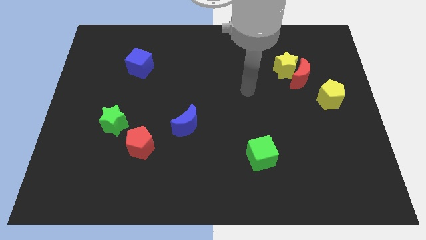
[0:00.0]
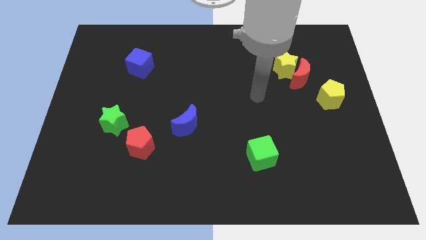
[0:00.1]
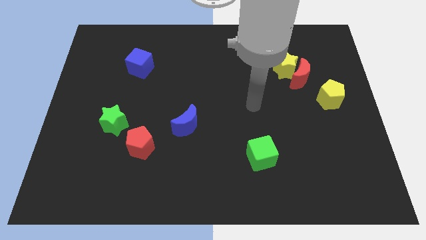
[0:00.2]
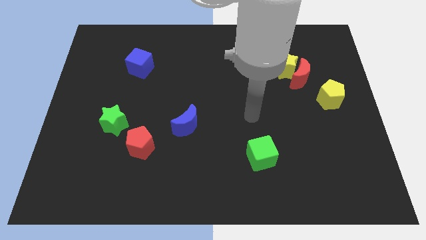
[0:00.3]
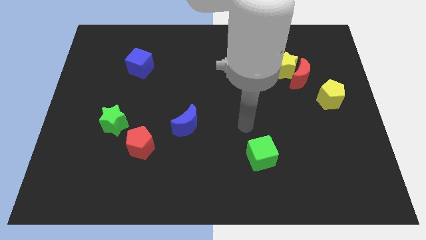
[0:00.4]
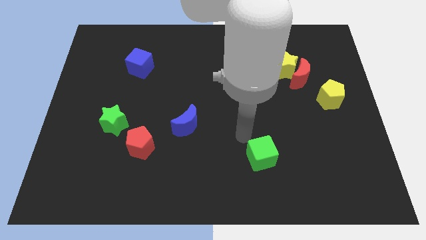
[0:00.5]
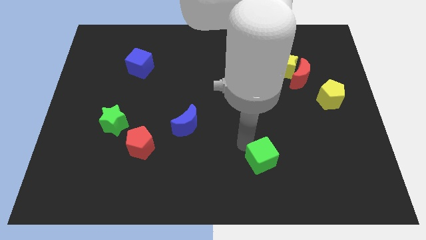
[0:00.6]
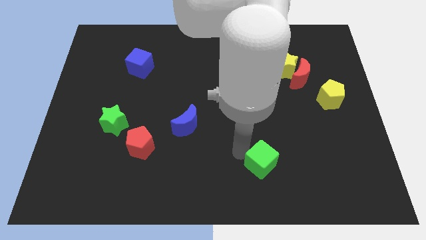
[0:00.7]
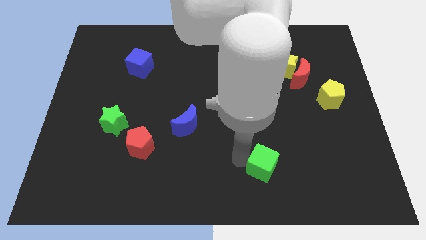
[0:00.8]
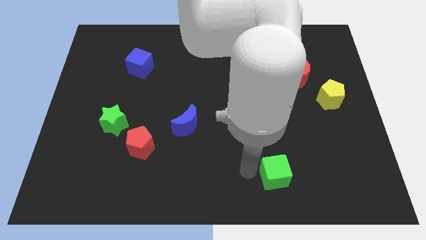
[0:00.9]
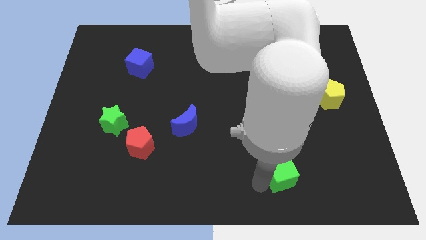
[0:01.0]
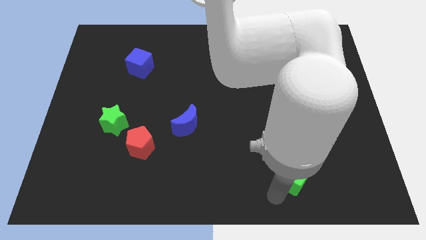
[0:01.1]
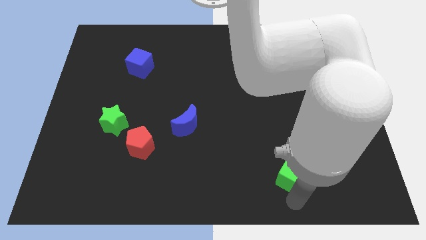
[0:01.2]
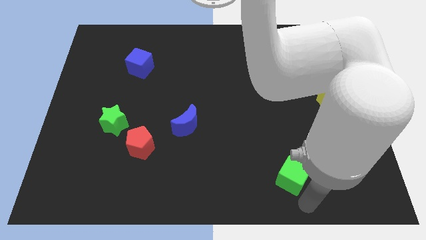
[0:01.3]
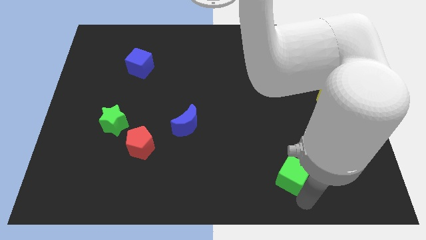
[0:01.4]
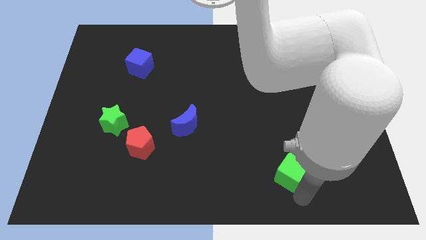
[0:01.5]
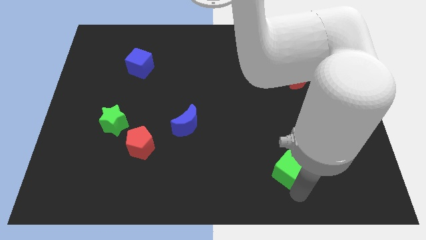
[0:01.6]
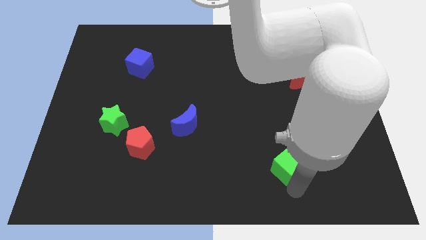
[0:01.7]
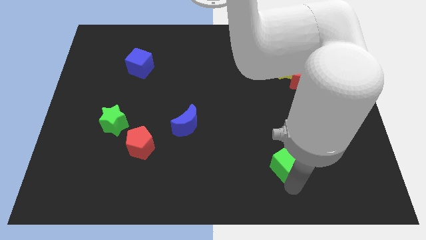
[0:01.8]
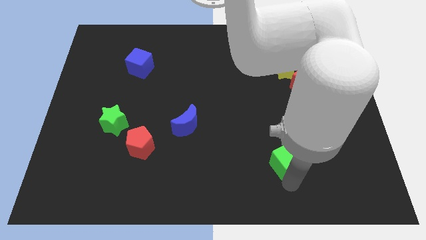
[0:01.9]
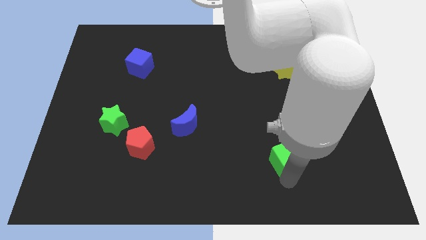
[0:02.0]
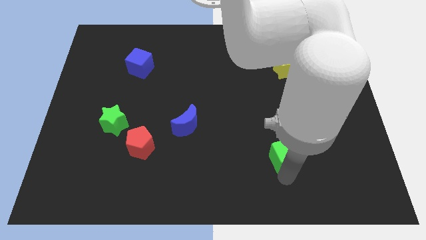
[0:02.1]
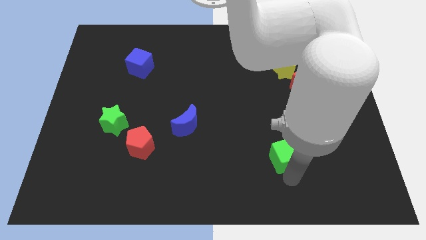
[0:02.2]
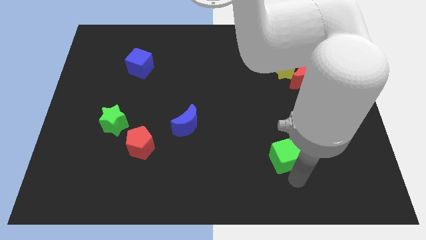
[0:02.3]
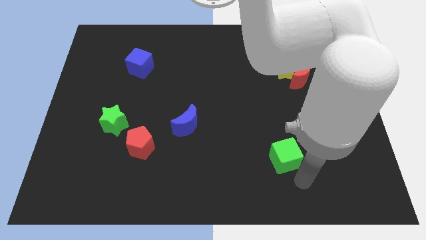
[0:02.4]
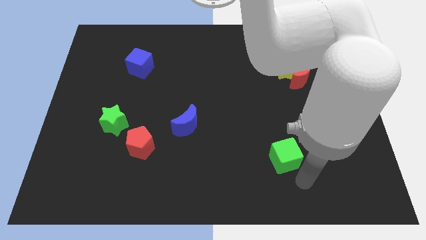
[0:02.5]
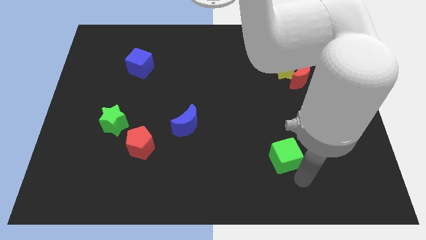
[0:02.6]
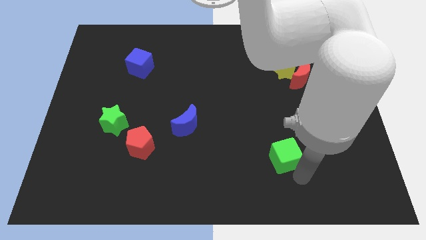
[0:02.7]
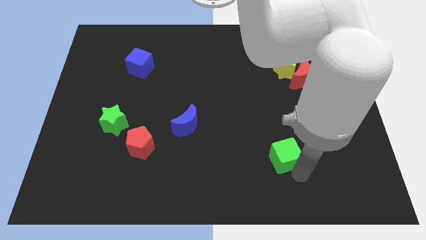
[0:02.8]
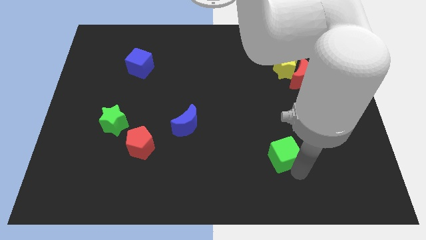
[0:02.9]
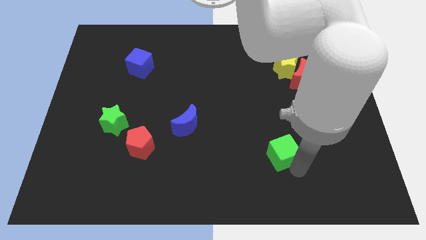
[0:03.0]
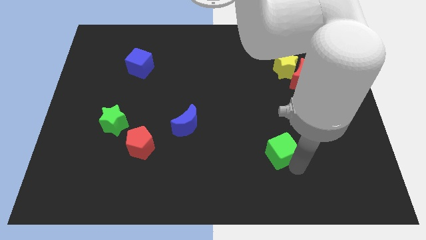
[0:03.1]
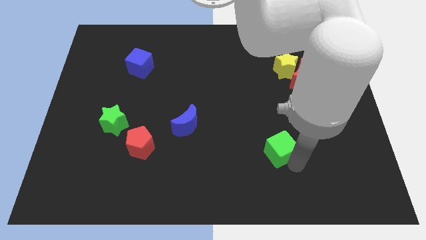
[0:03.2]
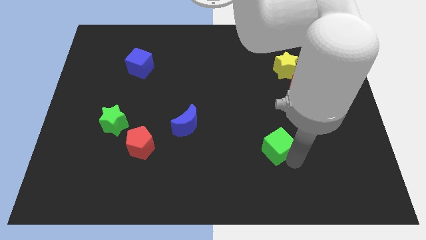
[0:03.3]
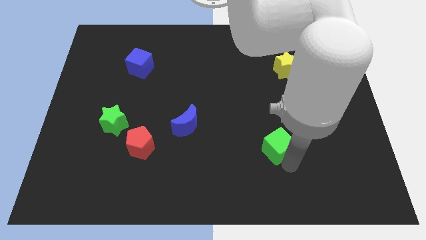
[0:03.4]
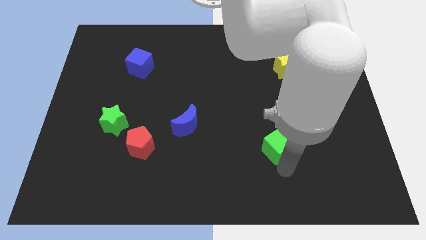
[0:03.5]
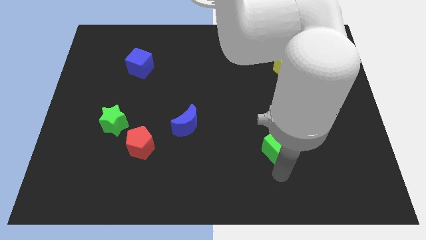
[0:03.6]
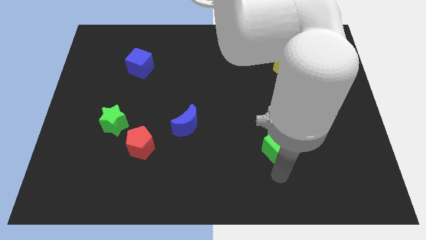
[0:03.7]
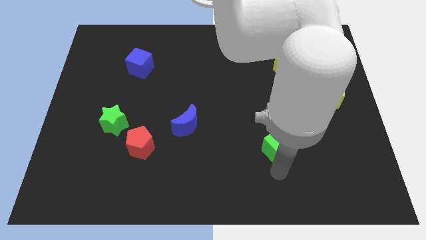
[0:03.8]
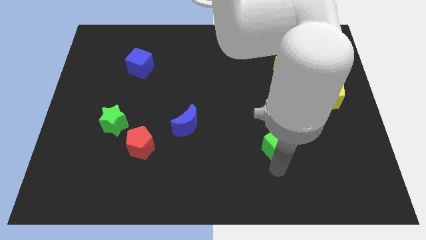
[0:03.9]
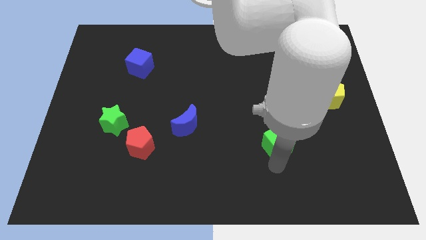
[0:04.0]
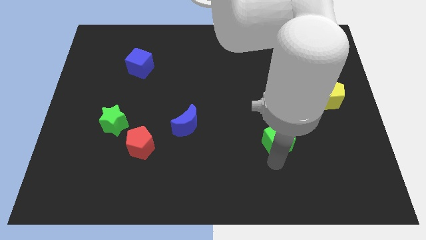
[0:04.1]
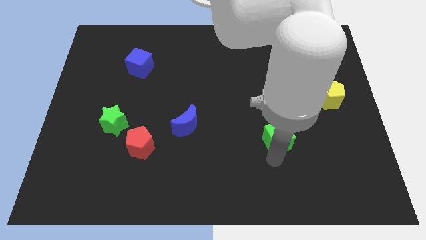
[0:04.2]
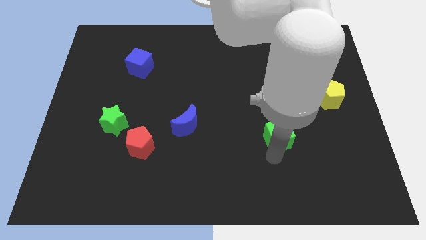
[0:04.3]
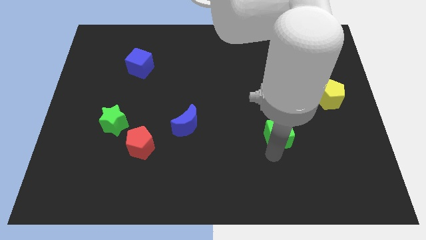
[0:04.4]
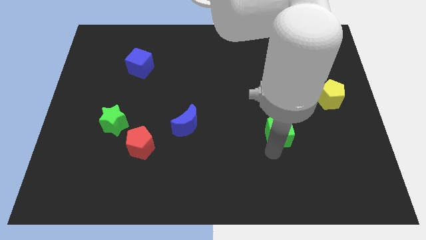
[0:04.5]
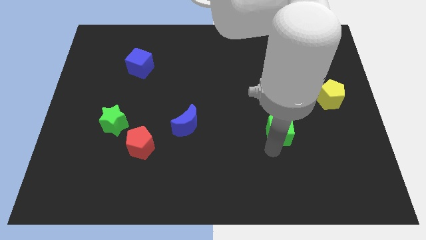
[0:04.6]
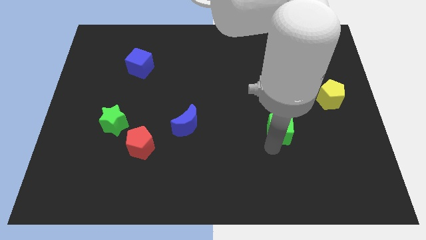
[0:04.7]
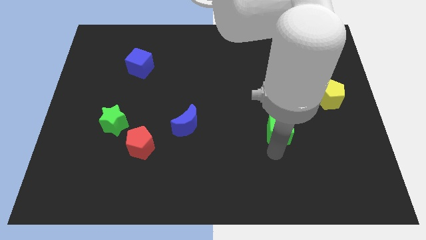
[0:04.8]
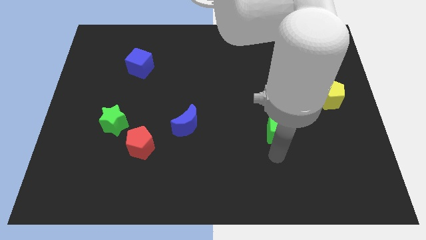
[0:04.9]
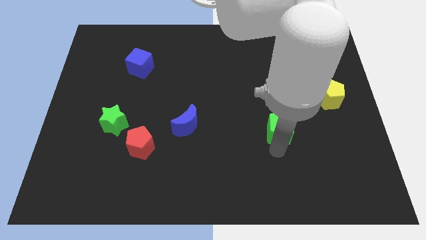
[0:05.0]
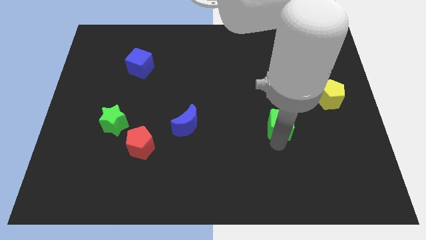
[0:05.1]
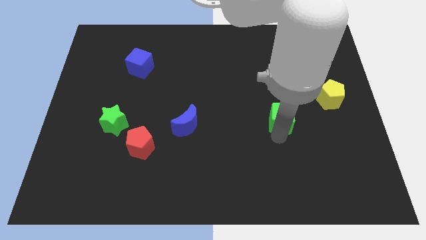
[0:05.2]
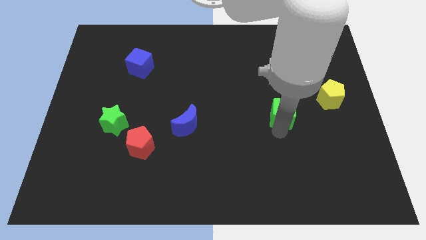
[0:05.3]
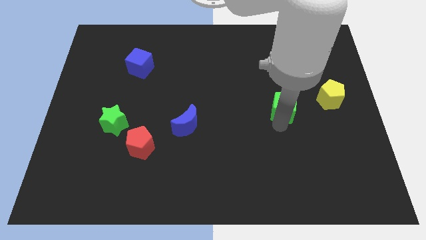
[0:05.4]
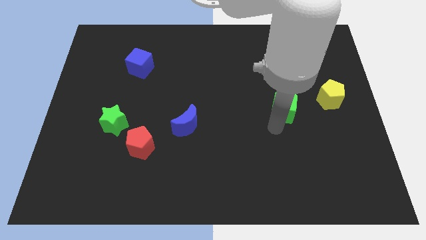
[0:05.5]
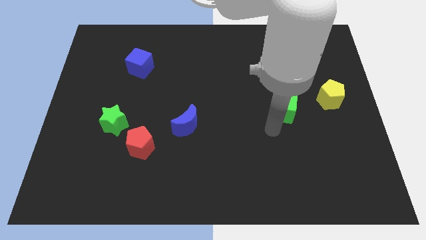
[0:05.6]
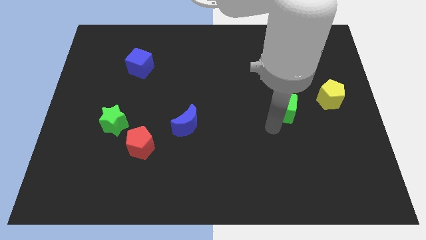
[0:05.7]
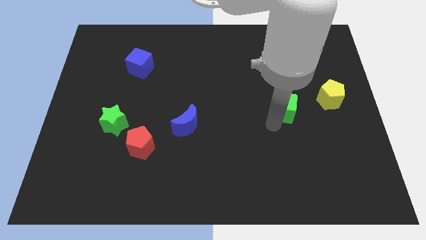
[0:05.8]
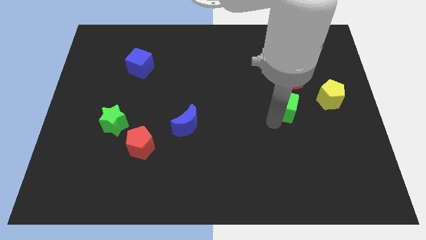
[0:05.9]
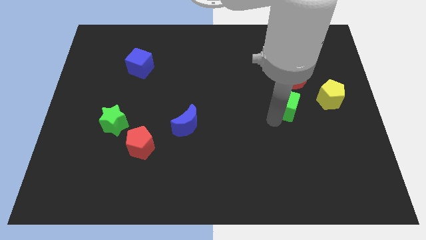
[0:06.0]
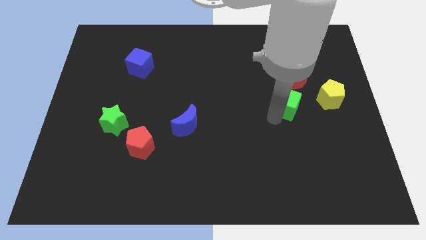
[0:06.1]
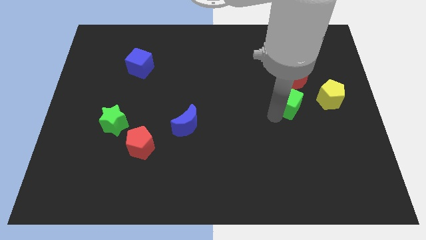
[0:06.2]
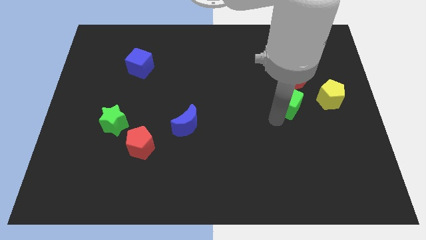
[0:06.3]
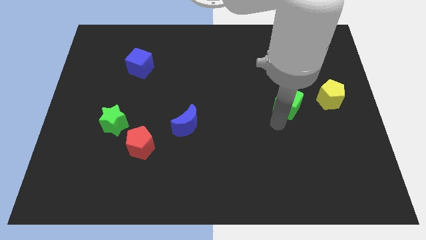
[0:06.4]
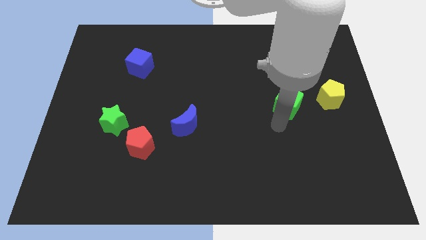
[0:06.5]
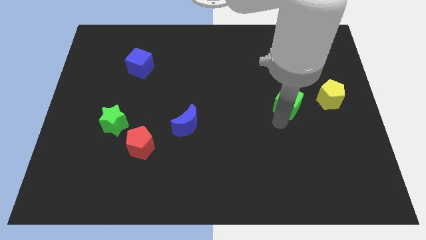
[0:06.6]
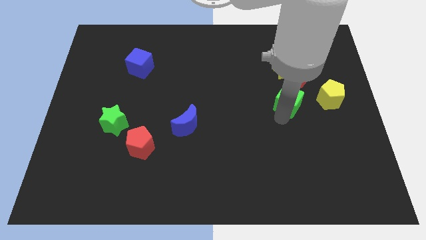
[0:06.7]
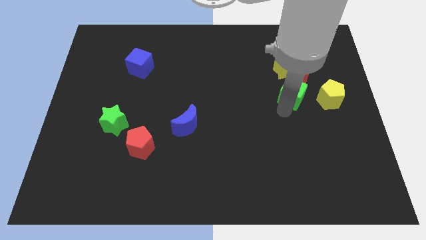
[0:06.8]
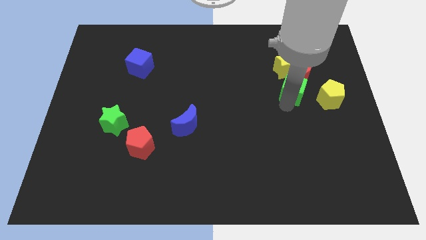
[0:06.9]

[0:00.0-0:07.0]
move the green cube to the red moon

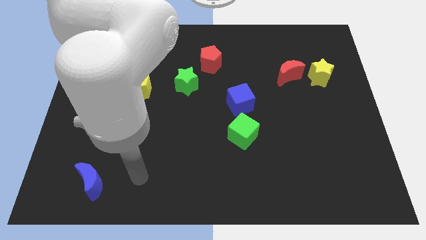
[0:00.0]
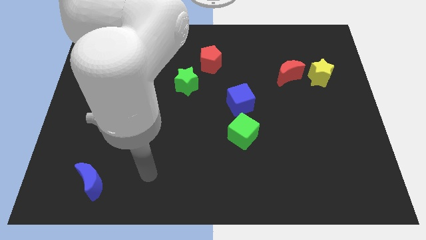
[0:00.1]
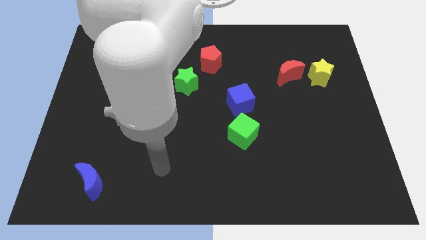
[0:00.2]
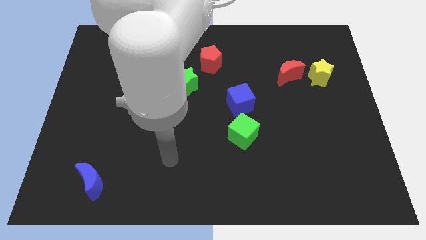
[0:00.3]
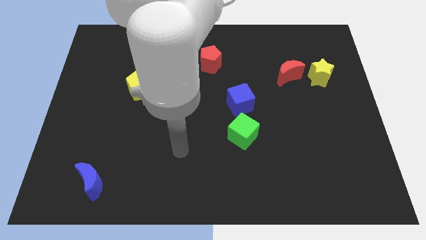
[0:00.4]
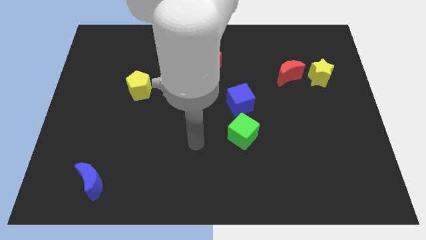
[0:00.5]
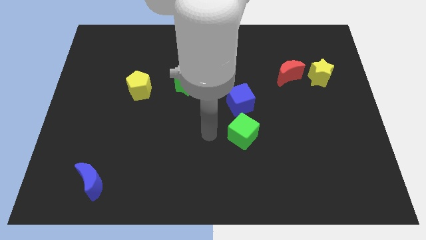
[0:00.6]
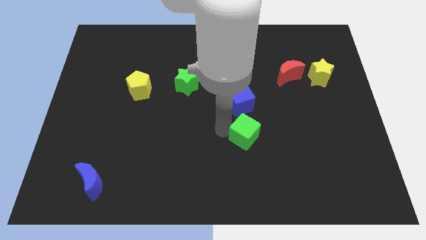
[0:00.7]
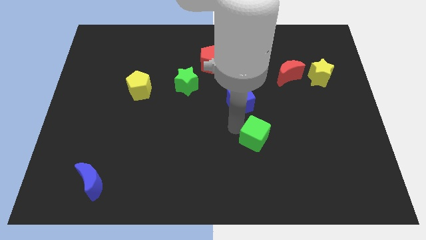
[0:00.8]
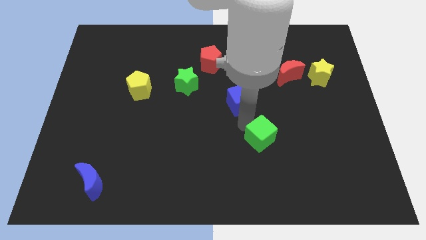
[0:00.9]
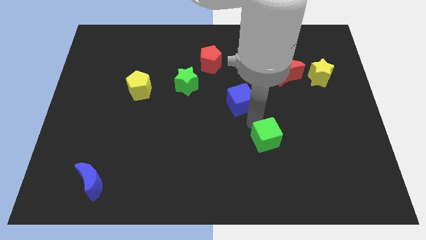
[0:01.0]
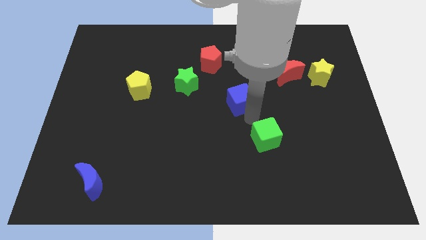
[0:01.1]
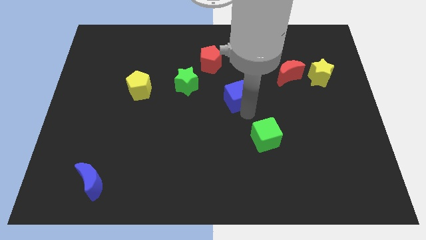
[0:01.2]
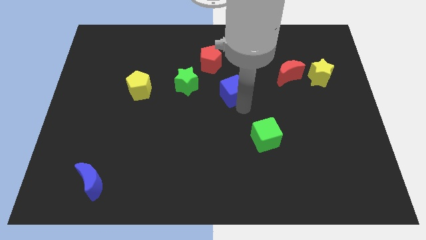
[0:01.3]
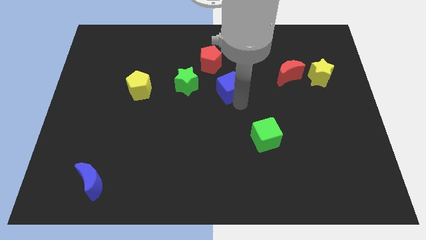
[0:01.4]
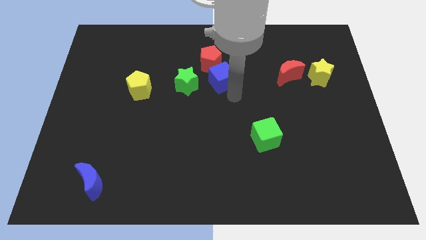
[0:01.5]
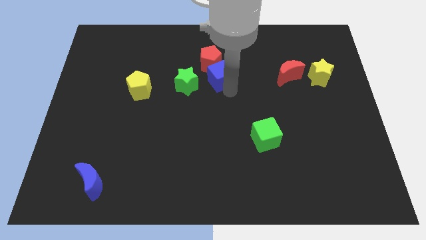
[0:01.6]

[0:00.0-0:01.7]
move the blue cube close to the red pentagon
